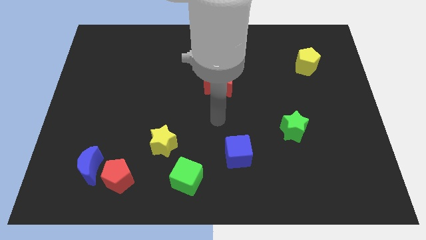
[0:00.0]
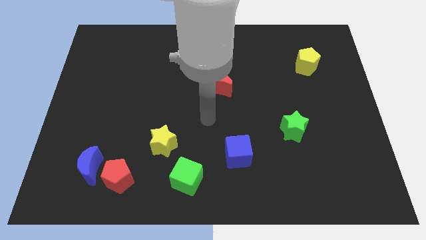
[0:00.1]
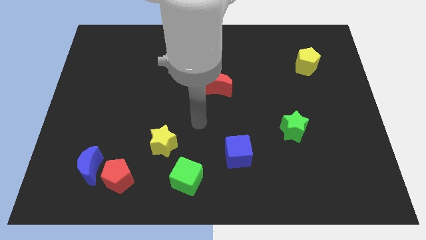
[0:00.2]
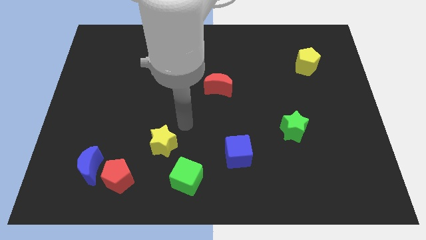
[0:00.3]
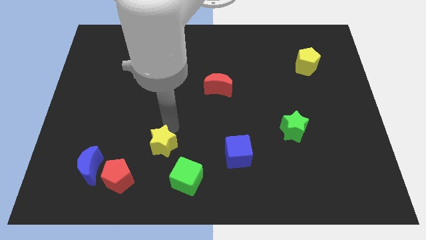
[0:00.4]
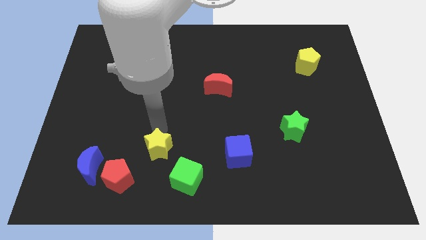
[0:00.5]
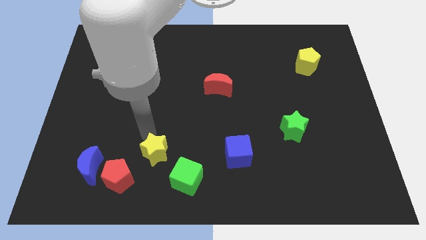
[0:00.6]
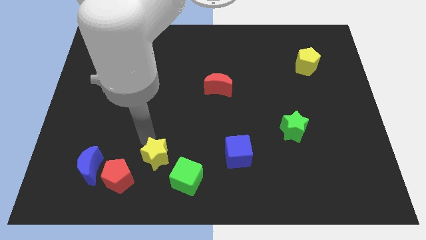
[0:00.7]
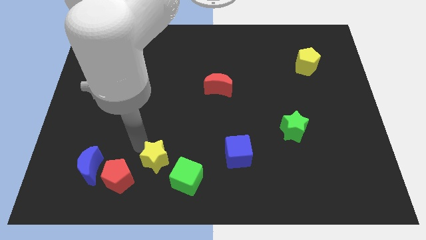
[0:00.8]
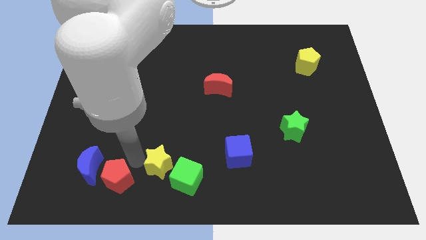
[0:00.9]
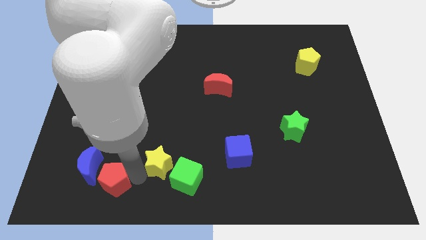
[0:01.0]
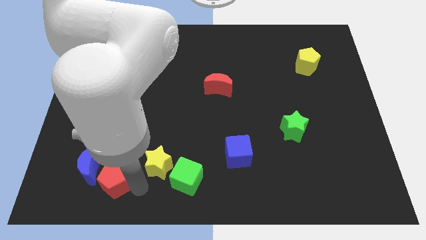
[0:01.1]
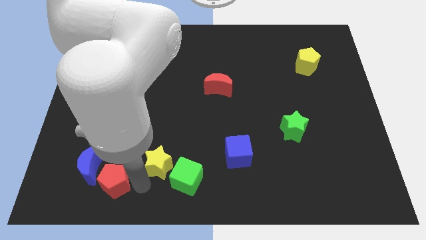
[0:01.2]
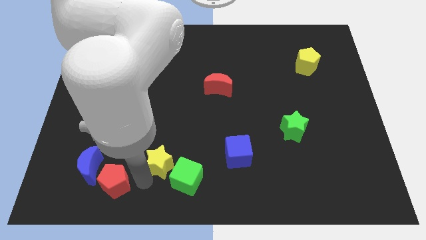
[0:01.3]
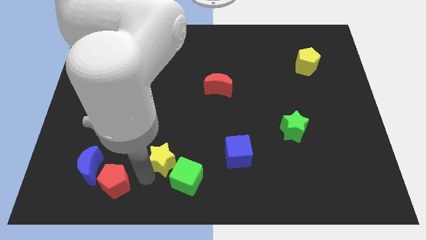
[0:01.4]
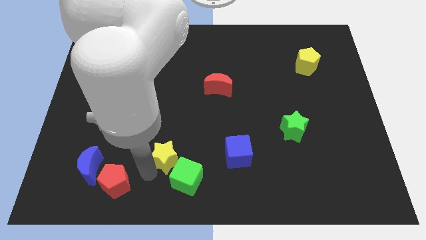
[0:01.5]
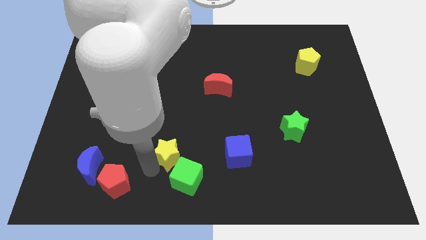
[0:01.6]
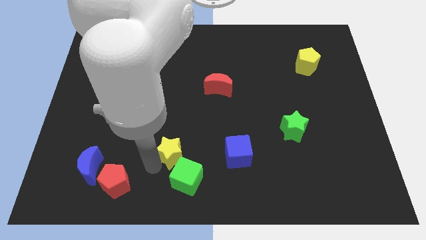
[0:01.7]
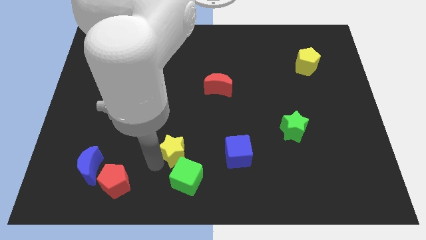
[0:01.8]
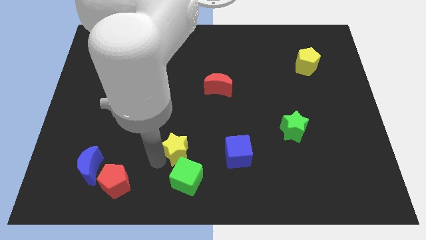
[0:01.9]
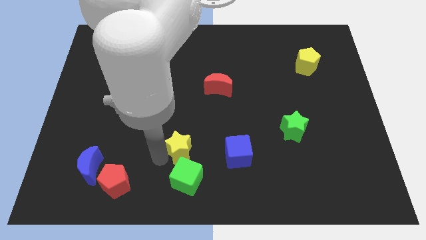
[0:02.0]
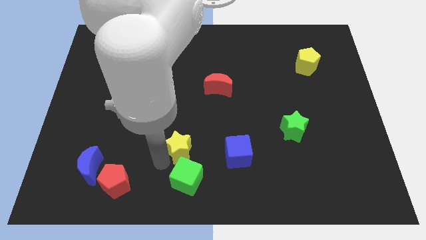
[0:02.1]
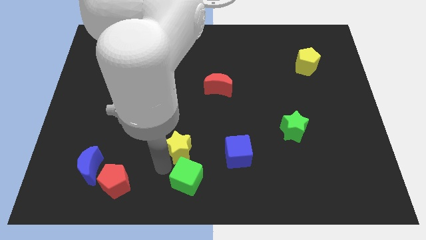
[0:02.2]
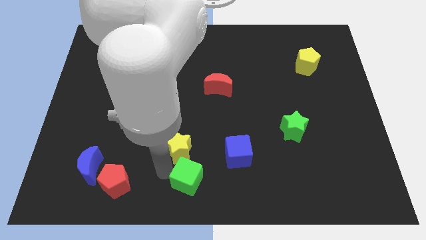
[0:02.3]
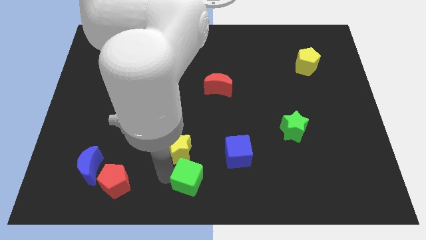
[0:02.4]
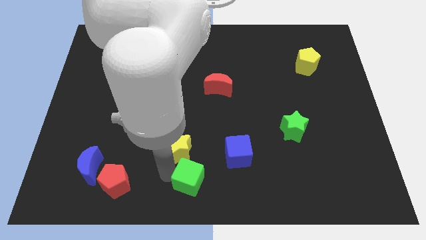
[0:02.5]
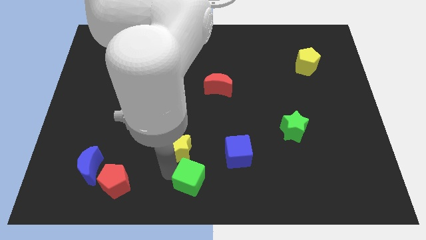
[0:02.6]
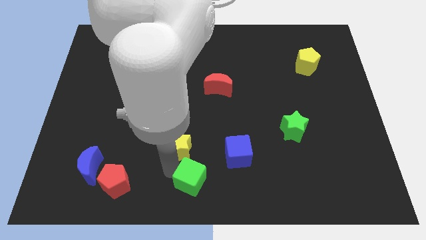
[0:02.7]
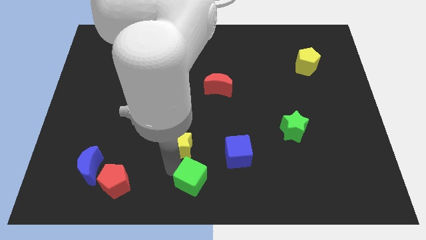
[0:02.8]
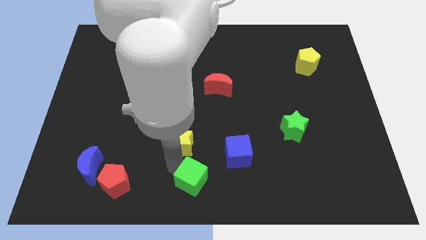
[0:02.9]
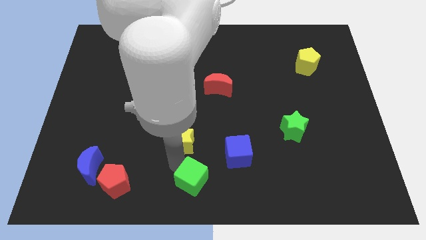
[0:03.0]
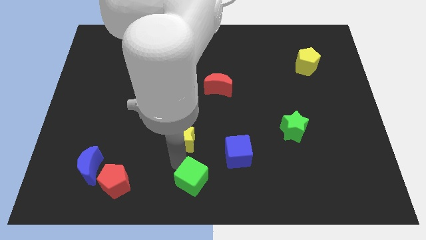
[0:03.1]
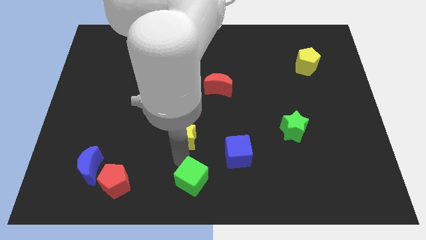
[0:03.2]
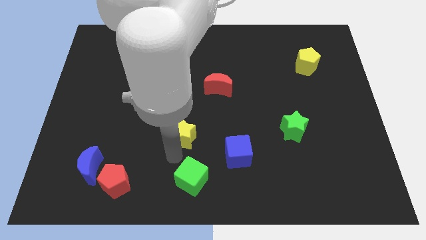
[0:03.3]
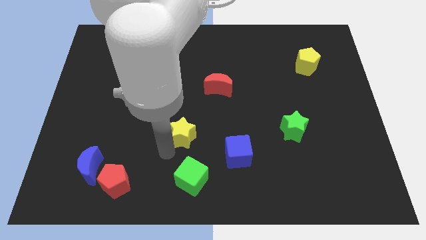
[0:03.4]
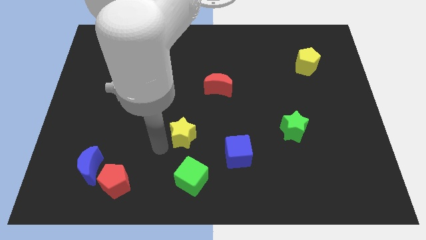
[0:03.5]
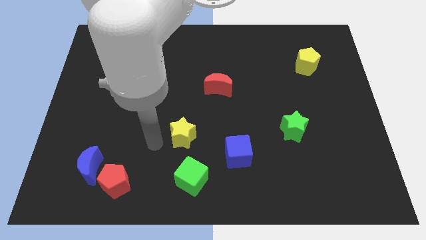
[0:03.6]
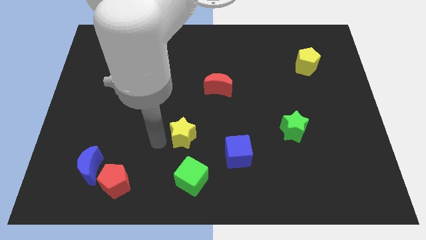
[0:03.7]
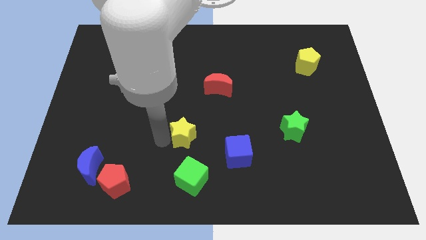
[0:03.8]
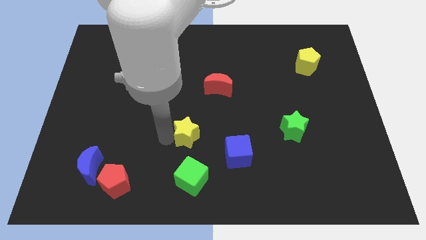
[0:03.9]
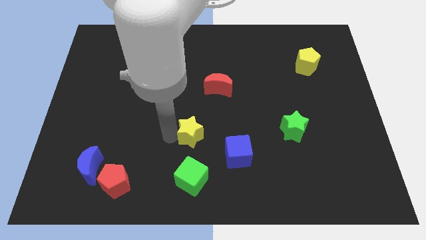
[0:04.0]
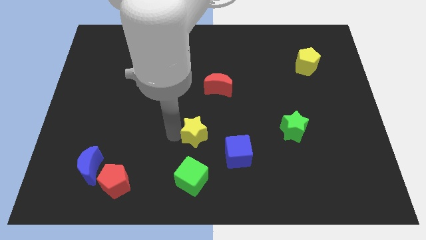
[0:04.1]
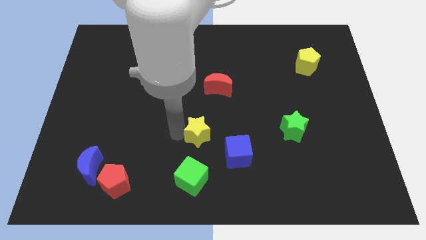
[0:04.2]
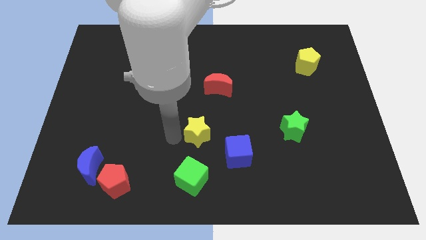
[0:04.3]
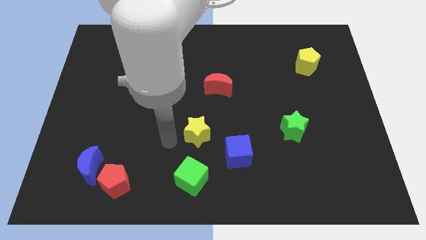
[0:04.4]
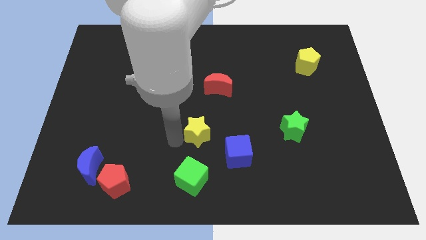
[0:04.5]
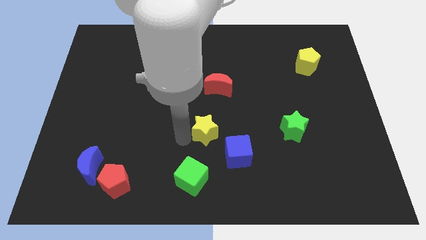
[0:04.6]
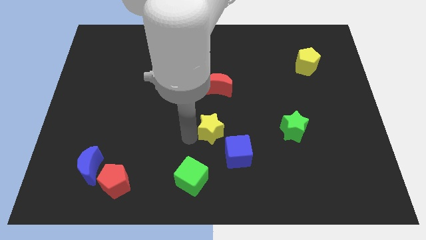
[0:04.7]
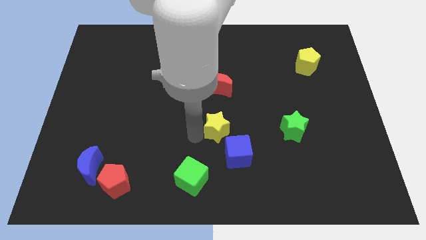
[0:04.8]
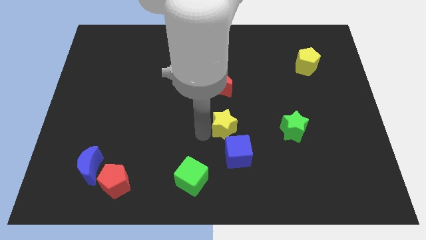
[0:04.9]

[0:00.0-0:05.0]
slide the yellow star just left of the green star

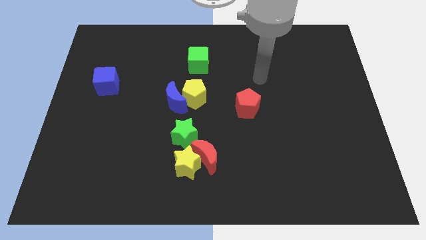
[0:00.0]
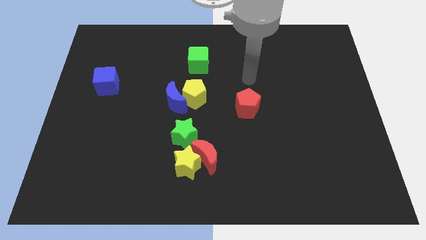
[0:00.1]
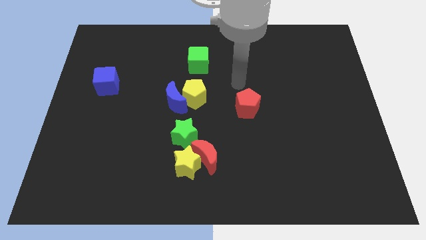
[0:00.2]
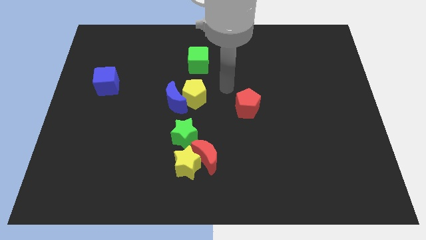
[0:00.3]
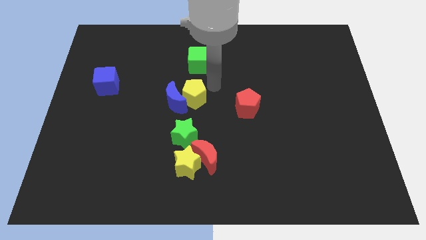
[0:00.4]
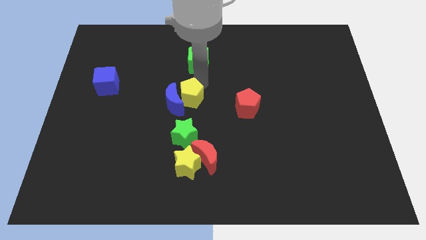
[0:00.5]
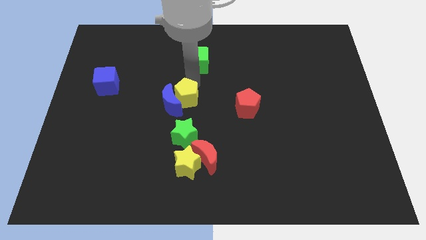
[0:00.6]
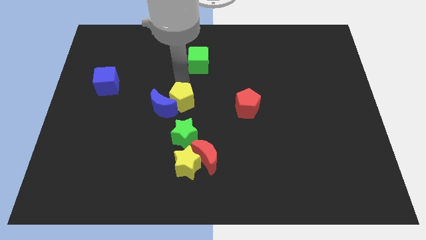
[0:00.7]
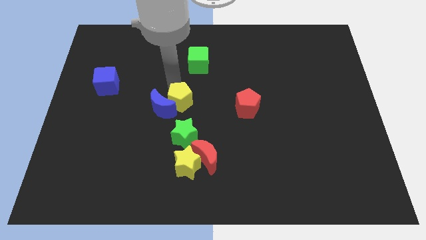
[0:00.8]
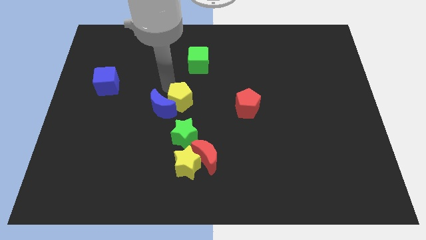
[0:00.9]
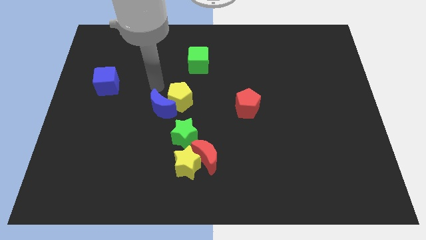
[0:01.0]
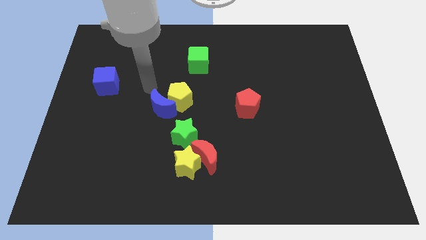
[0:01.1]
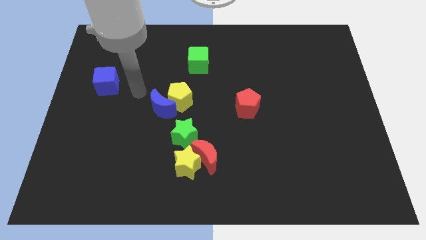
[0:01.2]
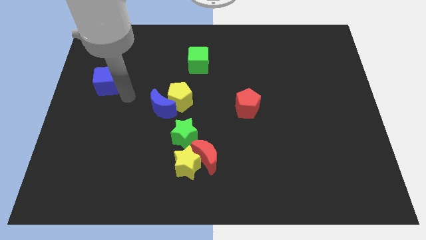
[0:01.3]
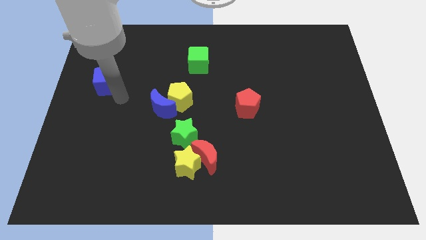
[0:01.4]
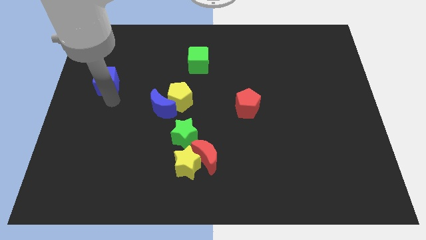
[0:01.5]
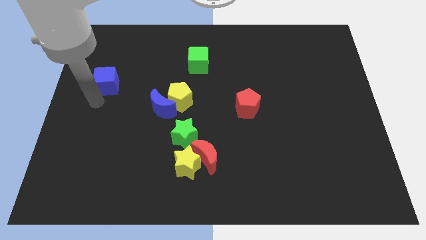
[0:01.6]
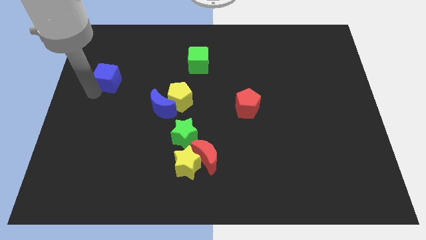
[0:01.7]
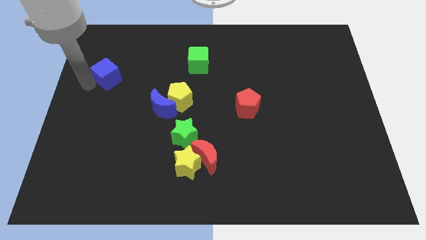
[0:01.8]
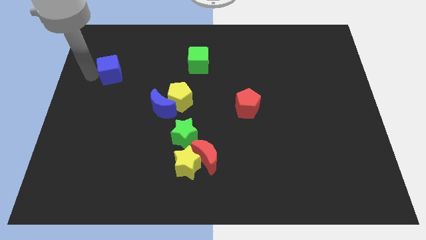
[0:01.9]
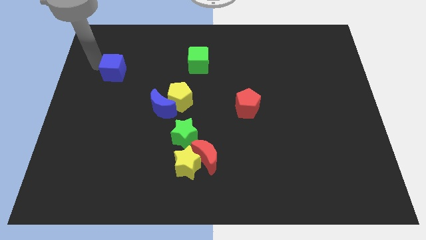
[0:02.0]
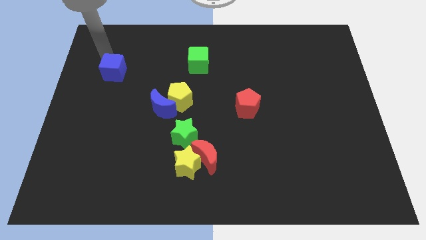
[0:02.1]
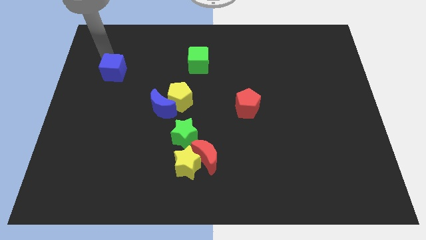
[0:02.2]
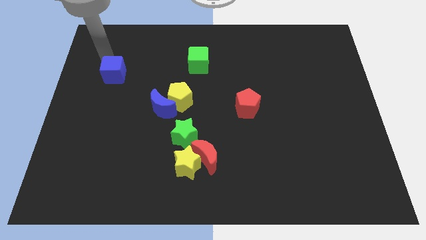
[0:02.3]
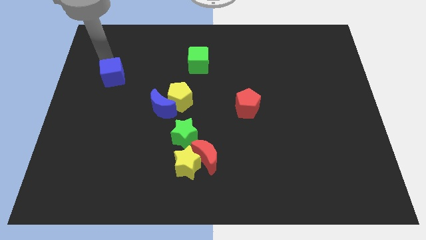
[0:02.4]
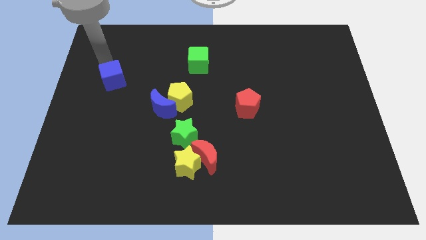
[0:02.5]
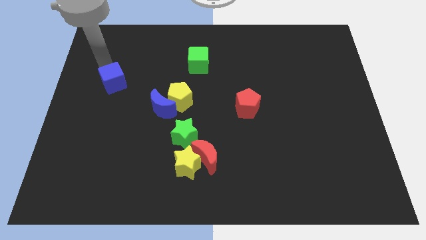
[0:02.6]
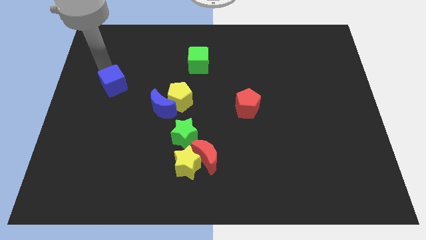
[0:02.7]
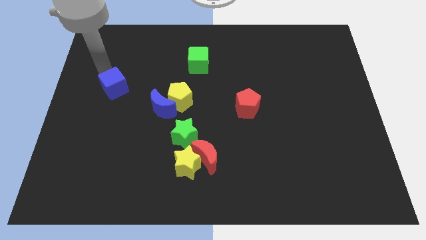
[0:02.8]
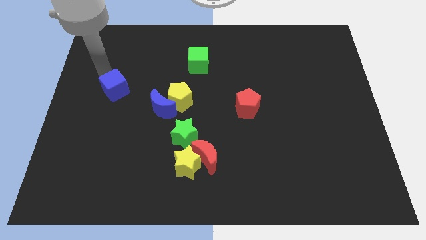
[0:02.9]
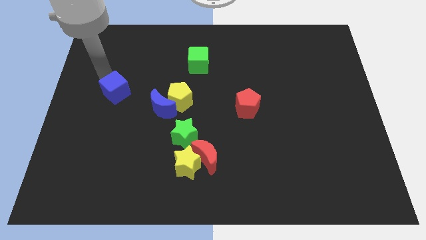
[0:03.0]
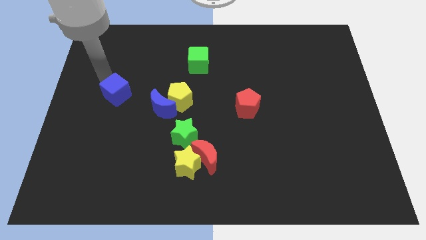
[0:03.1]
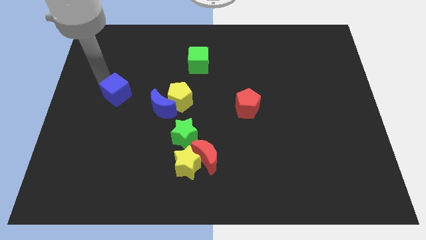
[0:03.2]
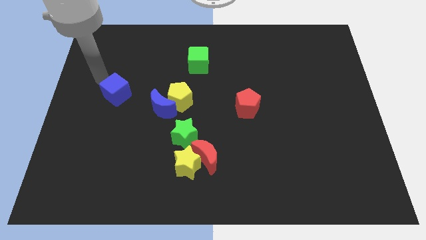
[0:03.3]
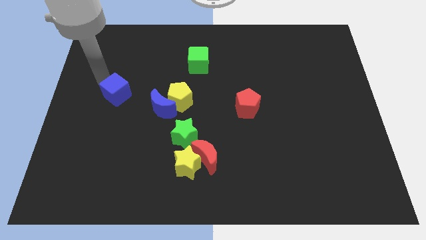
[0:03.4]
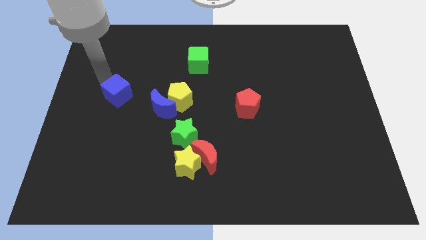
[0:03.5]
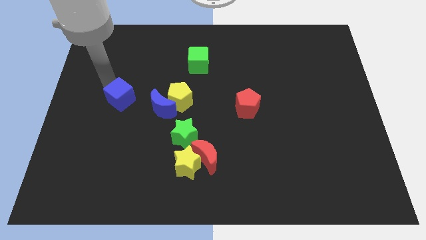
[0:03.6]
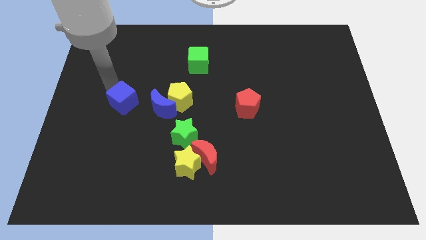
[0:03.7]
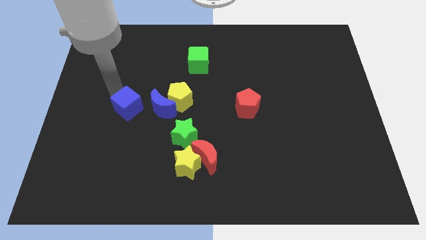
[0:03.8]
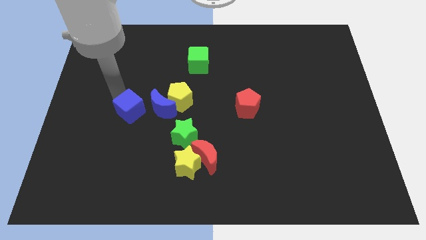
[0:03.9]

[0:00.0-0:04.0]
push the blue cube to the bottom left side of the blue moon
